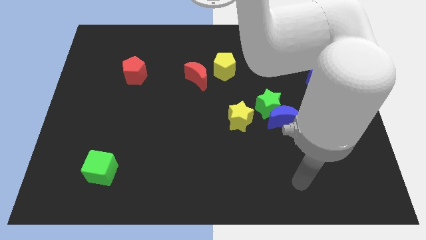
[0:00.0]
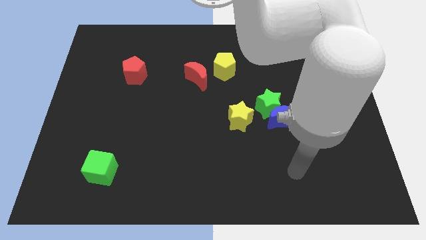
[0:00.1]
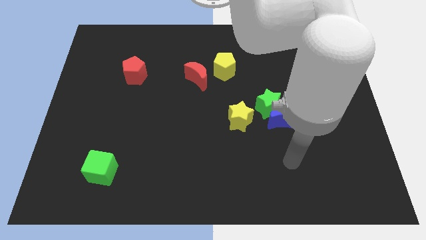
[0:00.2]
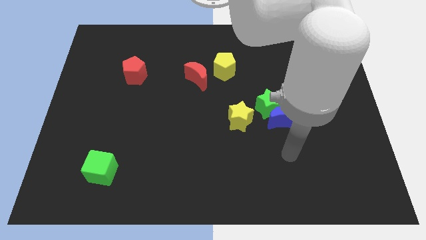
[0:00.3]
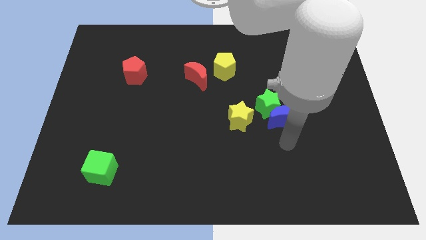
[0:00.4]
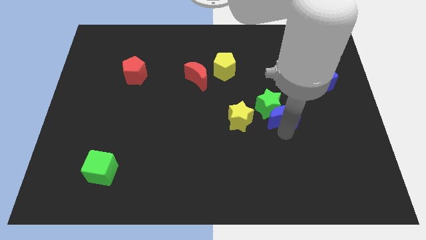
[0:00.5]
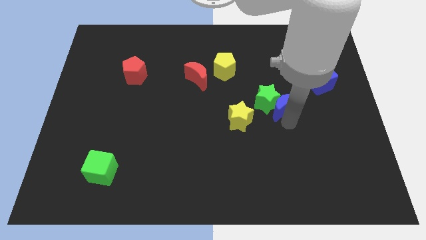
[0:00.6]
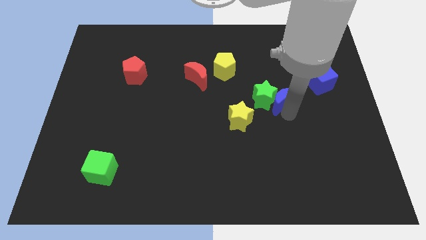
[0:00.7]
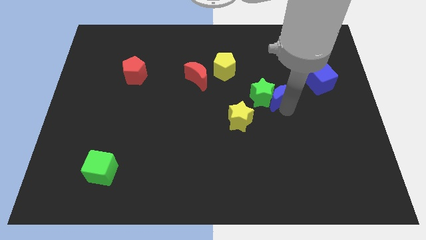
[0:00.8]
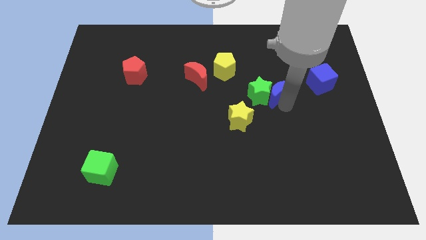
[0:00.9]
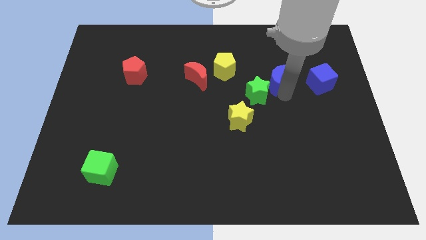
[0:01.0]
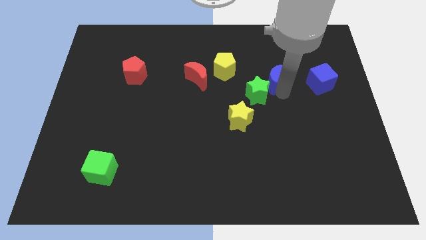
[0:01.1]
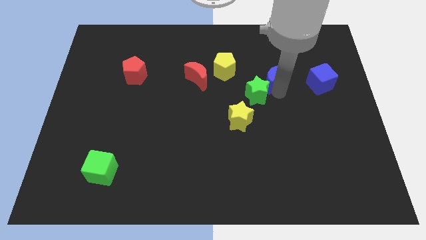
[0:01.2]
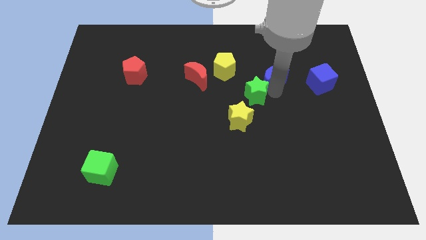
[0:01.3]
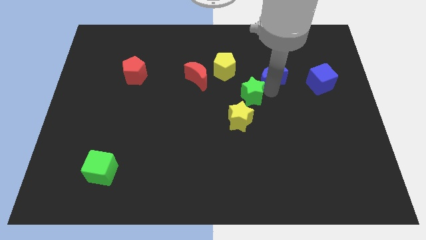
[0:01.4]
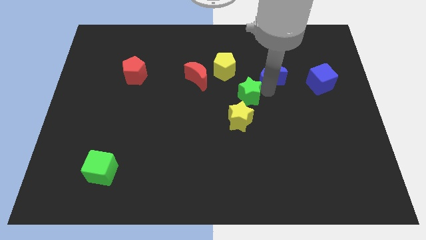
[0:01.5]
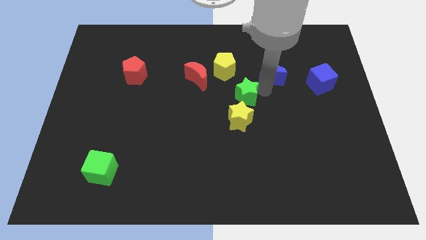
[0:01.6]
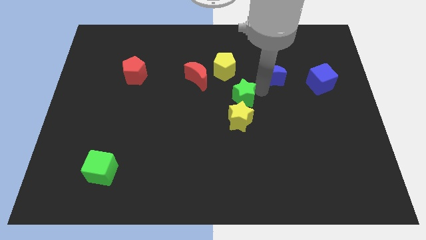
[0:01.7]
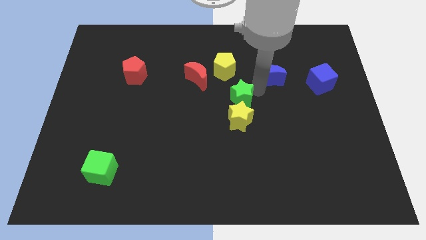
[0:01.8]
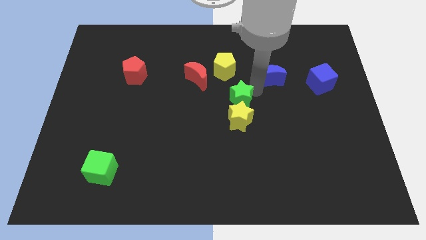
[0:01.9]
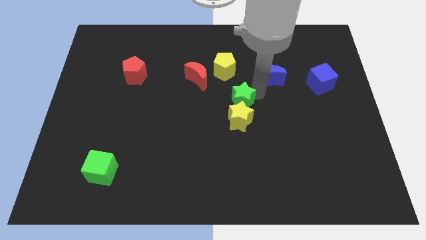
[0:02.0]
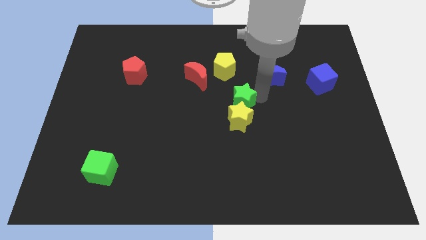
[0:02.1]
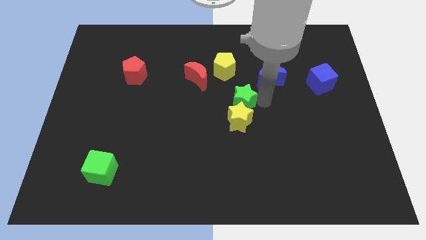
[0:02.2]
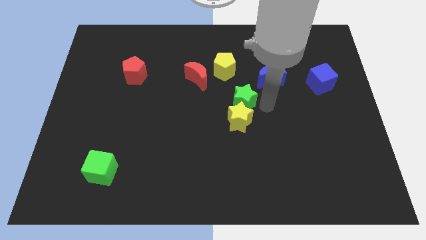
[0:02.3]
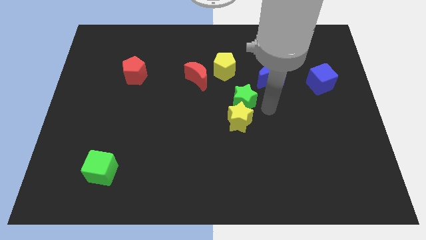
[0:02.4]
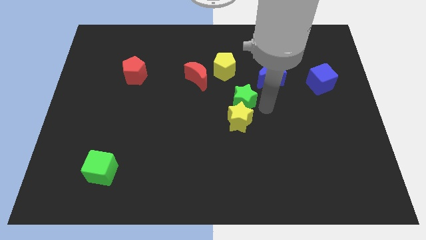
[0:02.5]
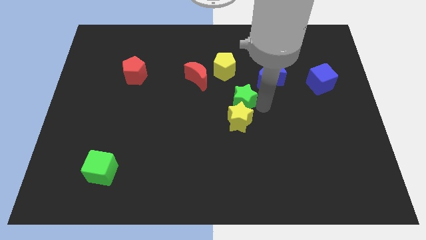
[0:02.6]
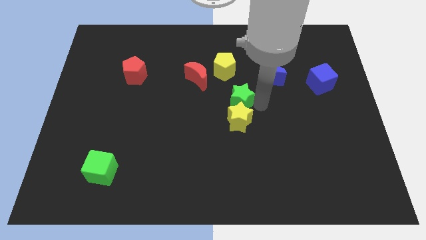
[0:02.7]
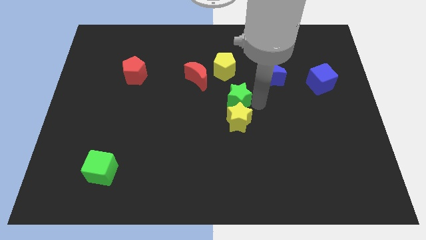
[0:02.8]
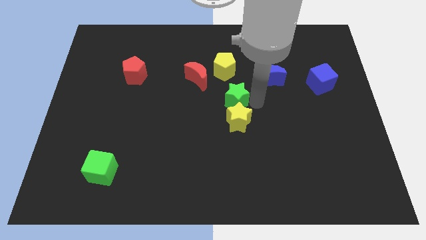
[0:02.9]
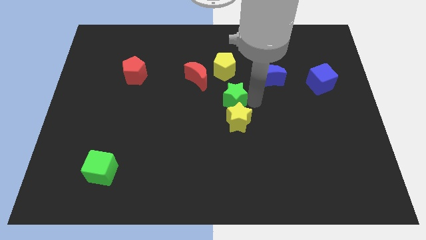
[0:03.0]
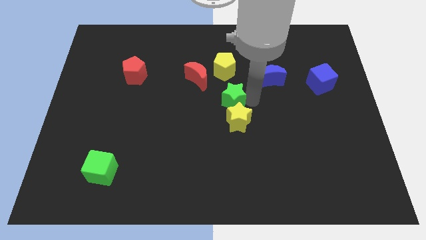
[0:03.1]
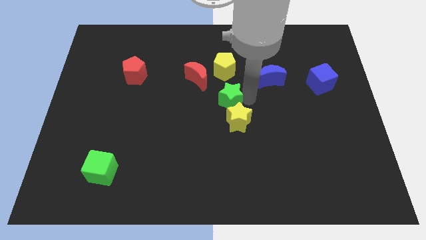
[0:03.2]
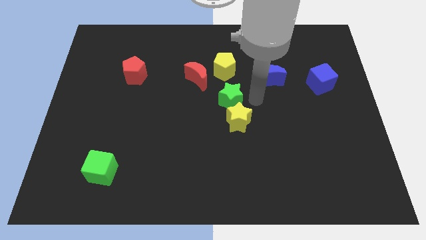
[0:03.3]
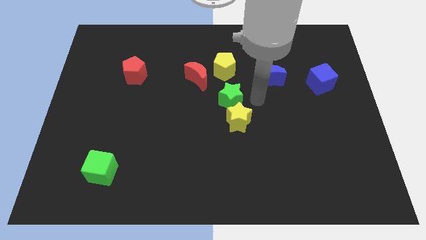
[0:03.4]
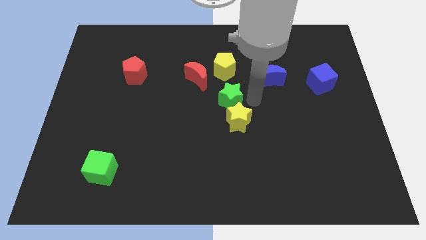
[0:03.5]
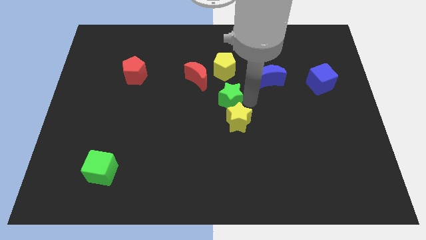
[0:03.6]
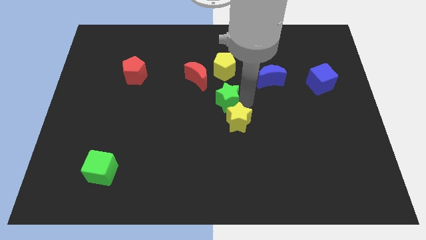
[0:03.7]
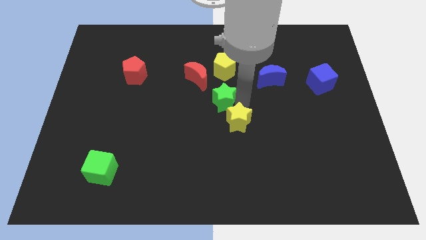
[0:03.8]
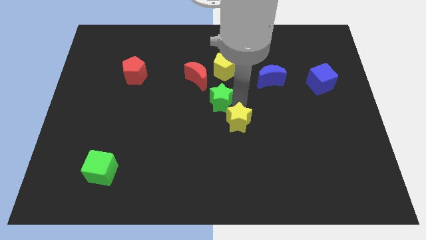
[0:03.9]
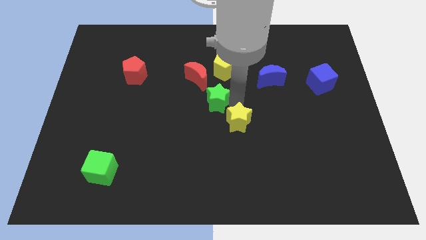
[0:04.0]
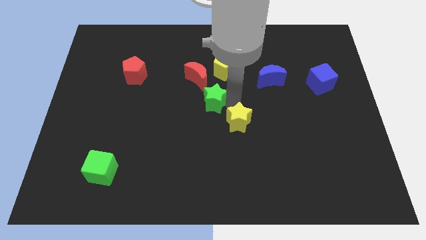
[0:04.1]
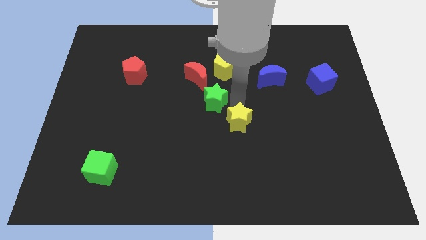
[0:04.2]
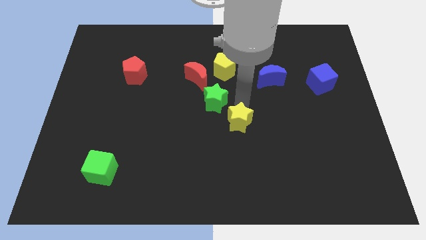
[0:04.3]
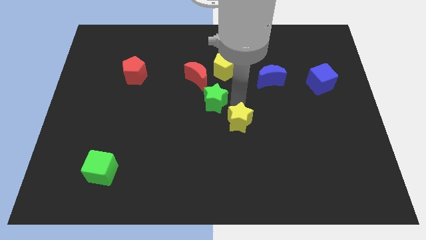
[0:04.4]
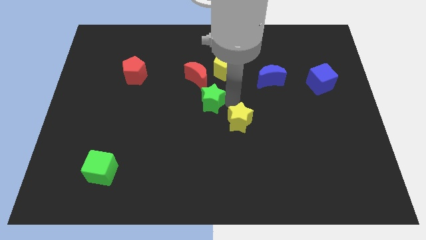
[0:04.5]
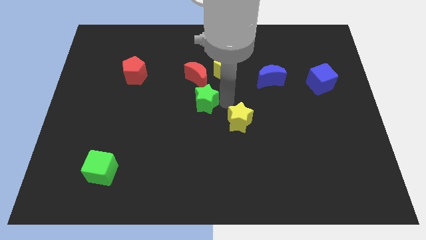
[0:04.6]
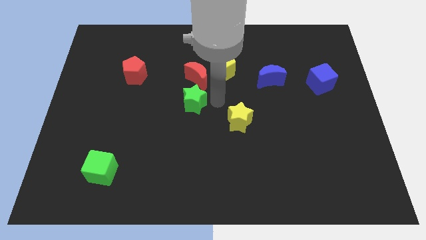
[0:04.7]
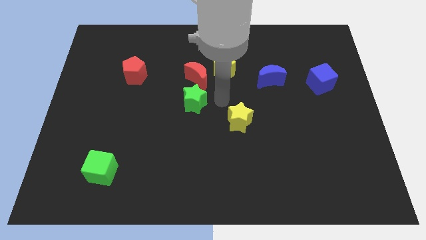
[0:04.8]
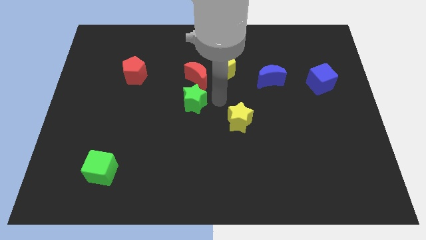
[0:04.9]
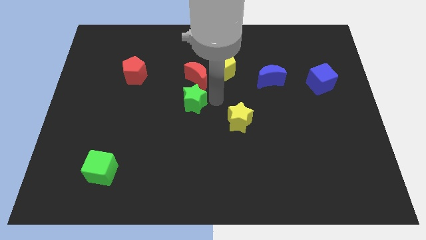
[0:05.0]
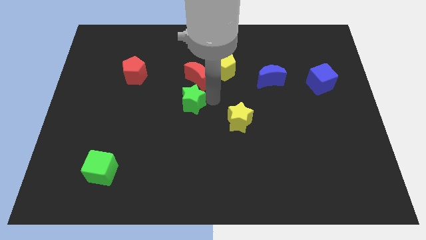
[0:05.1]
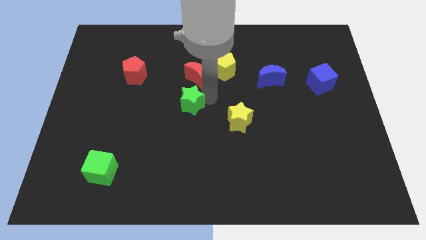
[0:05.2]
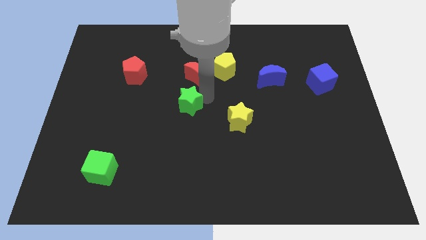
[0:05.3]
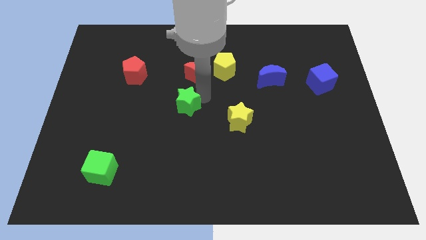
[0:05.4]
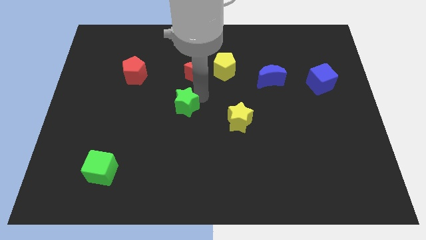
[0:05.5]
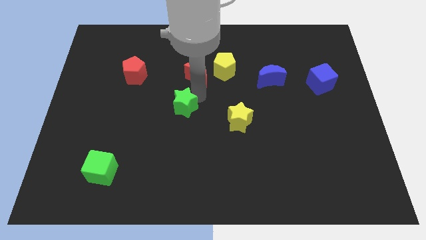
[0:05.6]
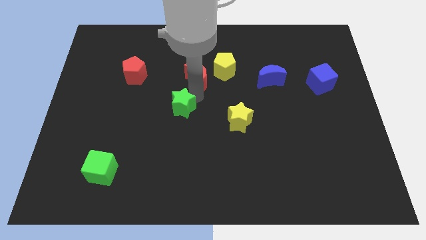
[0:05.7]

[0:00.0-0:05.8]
slide the green star to the left

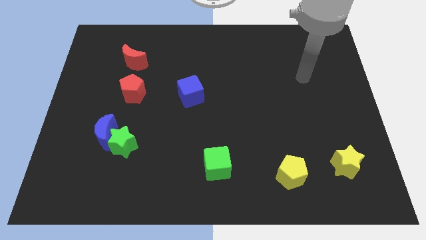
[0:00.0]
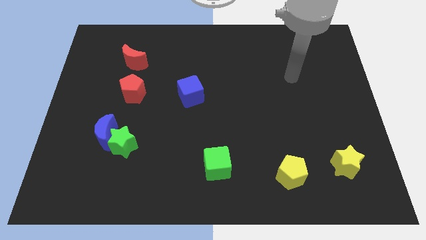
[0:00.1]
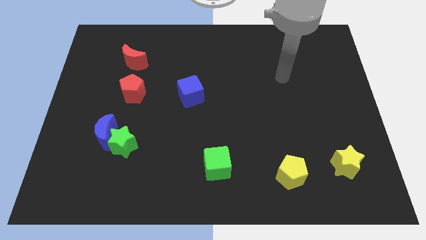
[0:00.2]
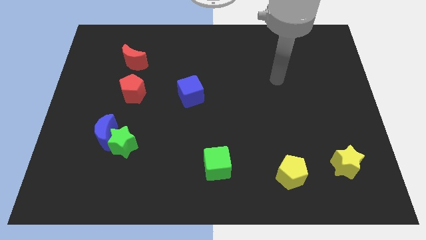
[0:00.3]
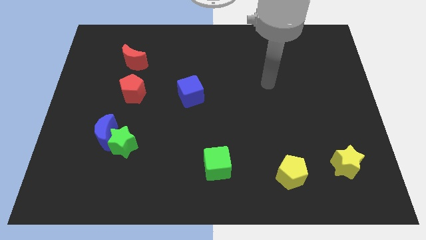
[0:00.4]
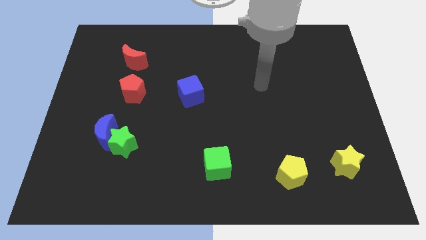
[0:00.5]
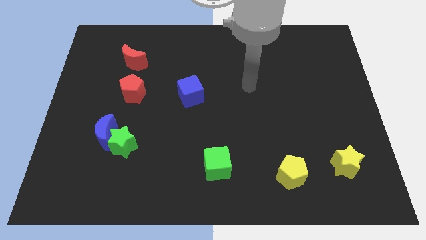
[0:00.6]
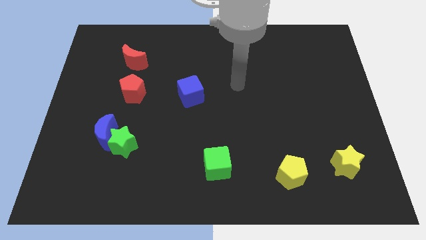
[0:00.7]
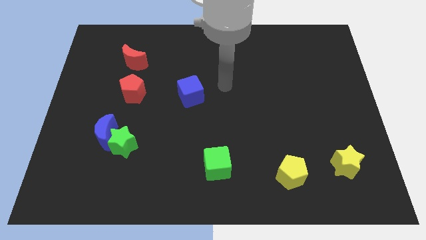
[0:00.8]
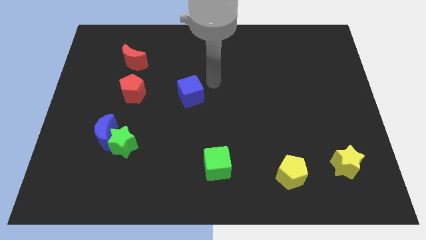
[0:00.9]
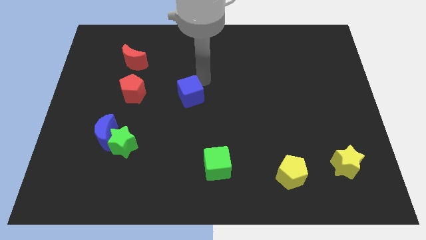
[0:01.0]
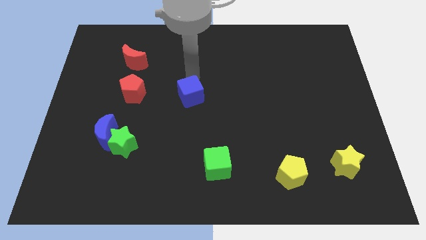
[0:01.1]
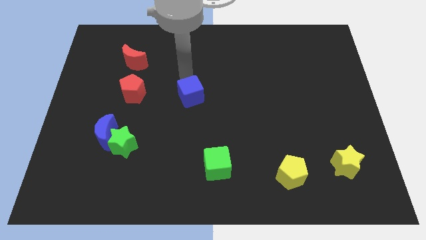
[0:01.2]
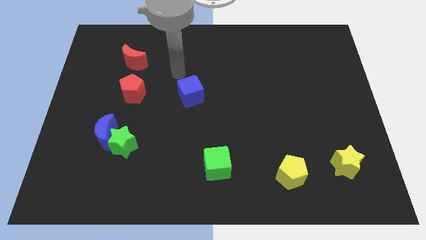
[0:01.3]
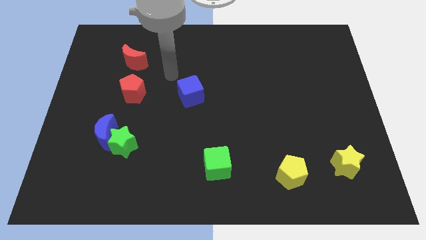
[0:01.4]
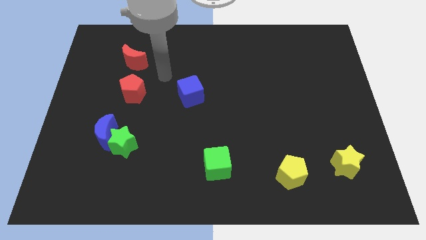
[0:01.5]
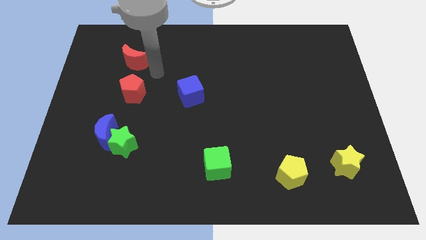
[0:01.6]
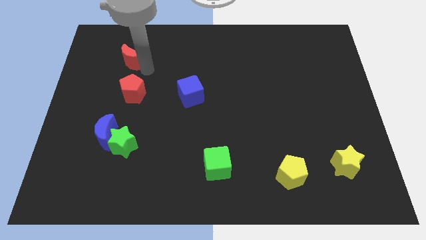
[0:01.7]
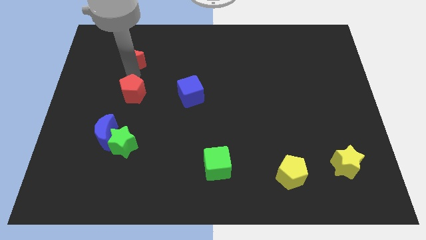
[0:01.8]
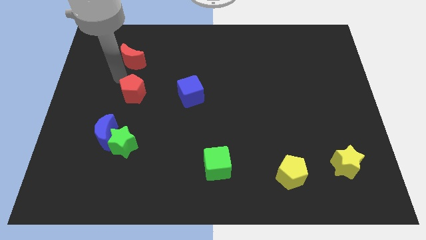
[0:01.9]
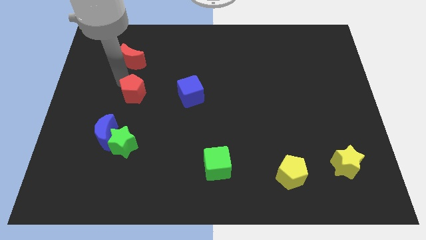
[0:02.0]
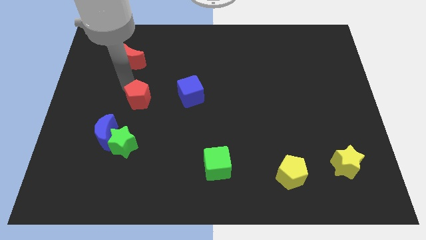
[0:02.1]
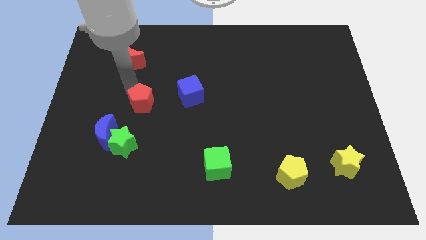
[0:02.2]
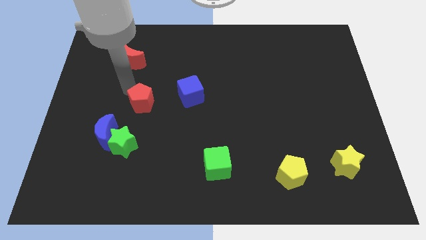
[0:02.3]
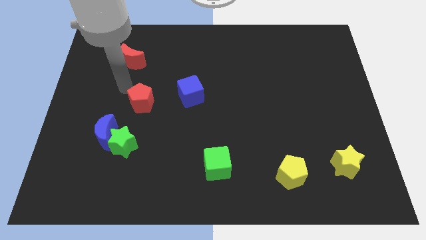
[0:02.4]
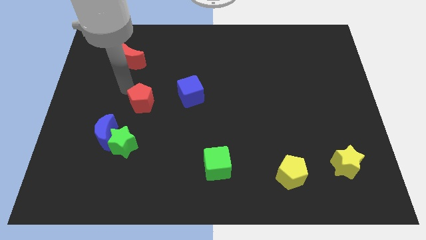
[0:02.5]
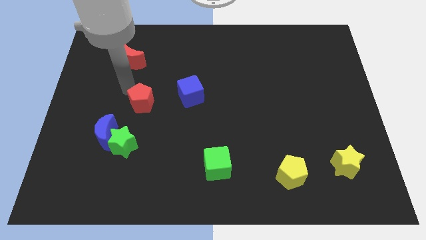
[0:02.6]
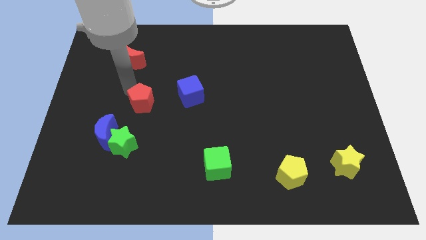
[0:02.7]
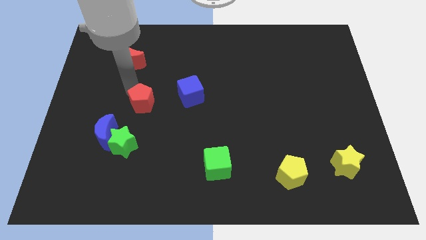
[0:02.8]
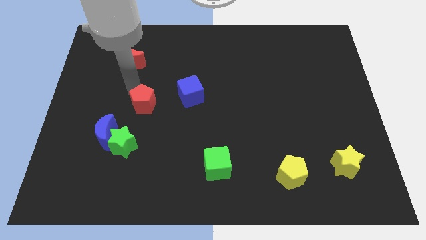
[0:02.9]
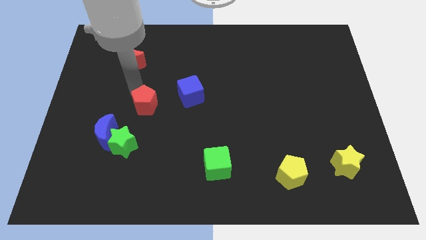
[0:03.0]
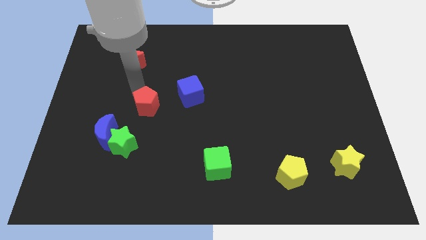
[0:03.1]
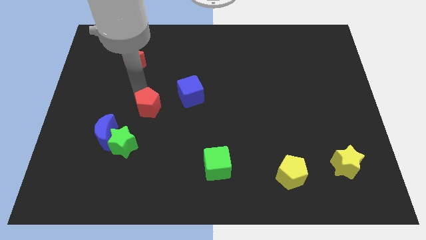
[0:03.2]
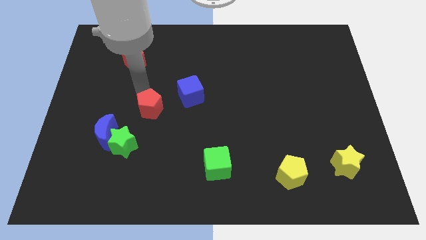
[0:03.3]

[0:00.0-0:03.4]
slightly slide the red pentagon downwards and right diagonally
